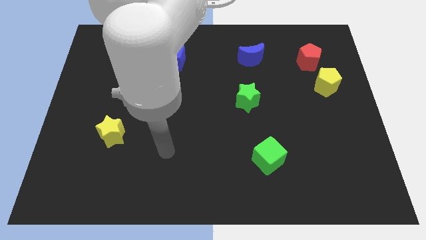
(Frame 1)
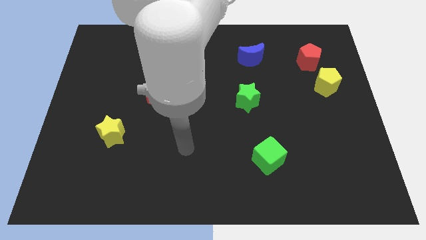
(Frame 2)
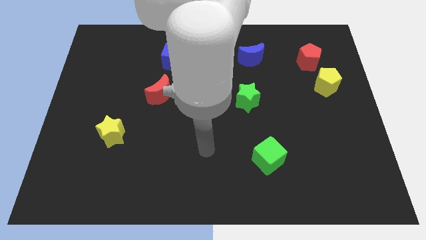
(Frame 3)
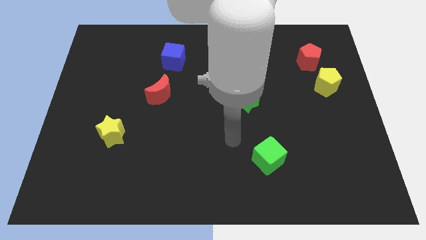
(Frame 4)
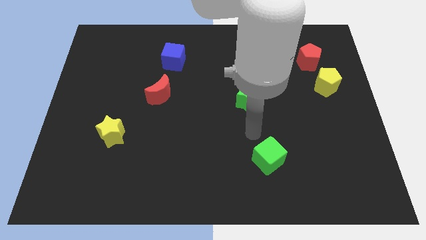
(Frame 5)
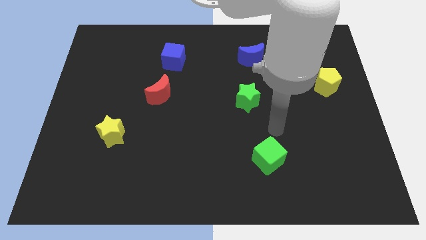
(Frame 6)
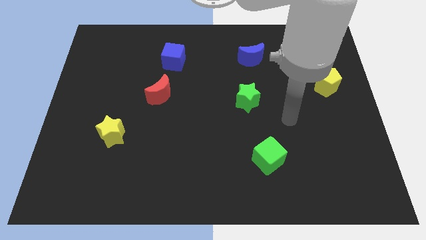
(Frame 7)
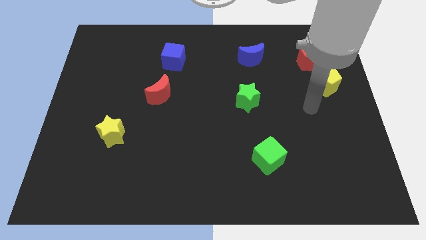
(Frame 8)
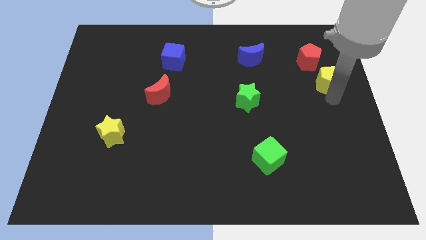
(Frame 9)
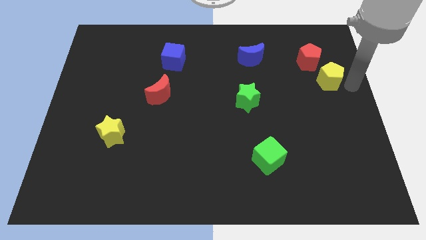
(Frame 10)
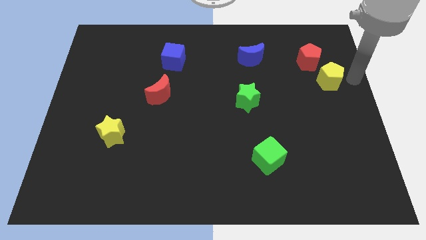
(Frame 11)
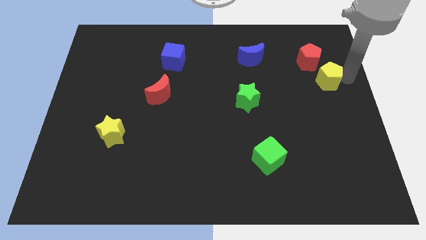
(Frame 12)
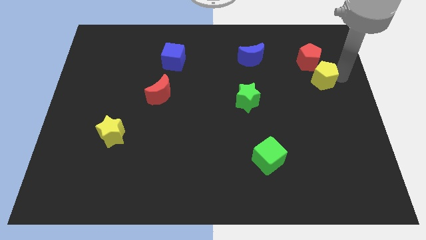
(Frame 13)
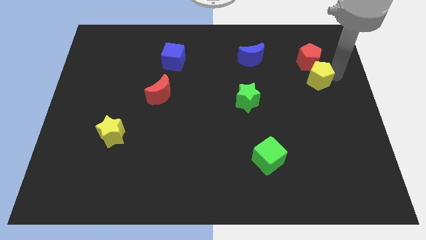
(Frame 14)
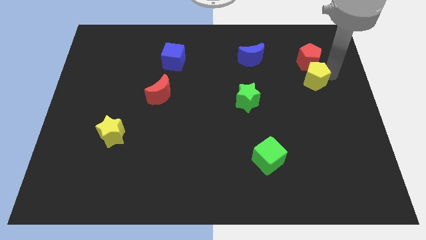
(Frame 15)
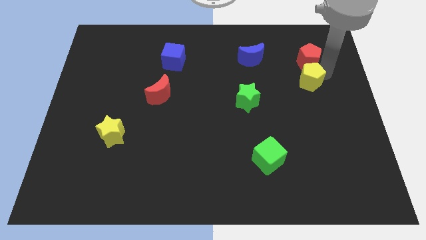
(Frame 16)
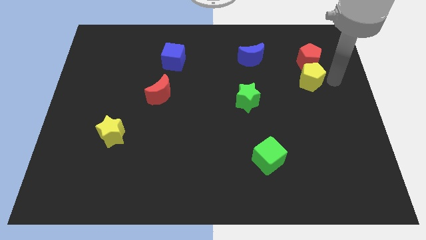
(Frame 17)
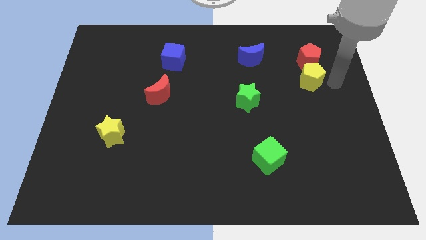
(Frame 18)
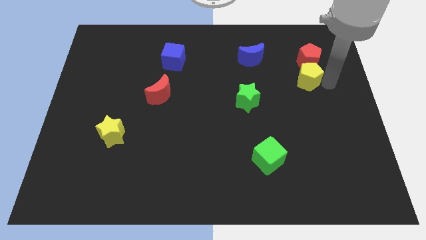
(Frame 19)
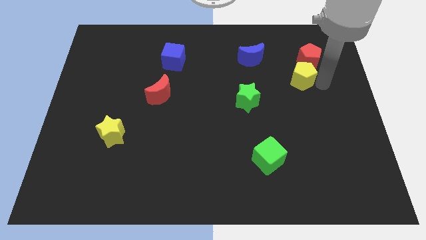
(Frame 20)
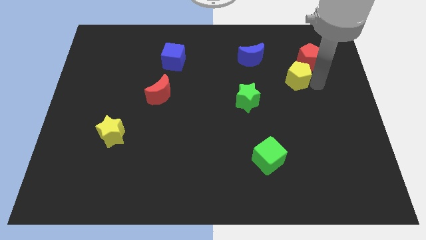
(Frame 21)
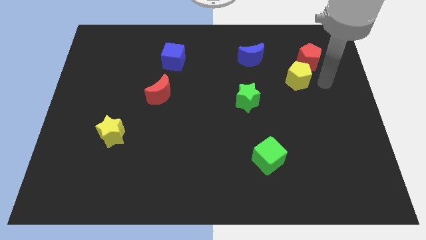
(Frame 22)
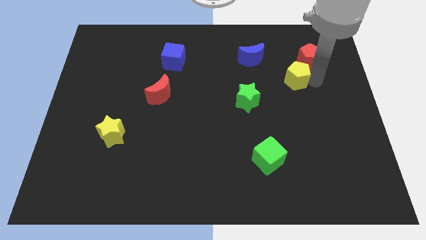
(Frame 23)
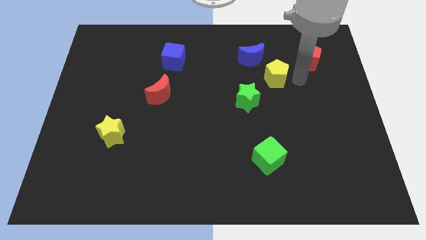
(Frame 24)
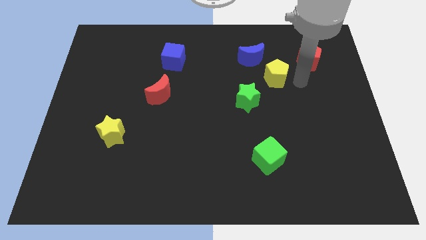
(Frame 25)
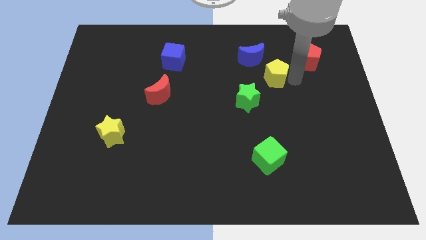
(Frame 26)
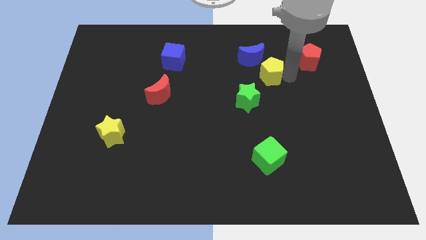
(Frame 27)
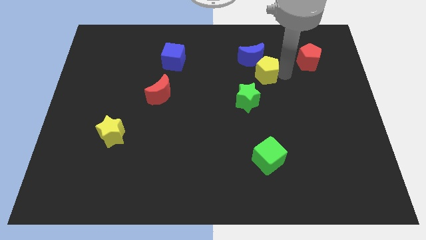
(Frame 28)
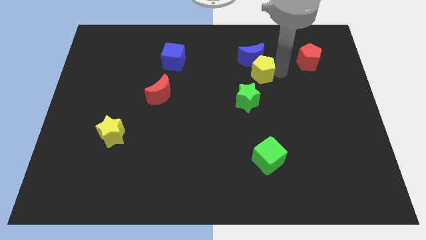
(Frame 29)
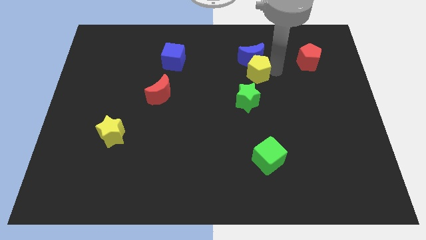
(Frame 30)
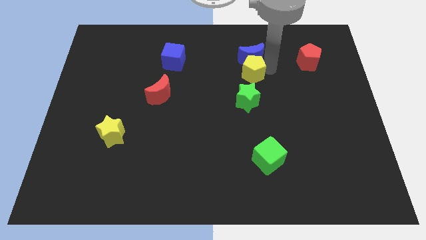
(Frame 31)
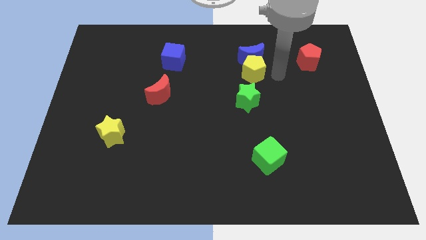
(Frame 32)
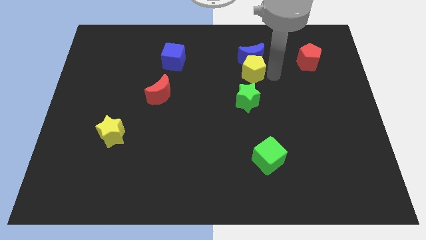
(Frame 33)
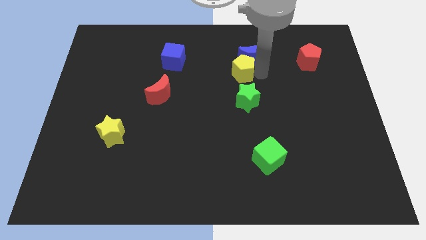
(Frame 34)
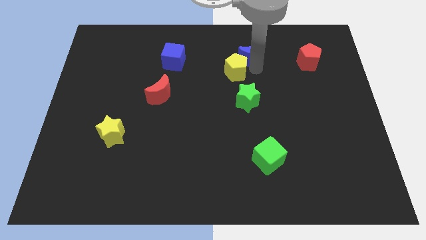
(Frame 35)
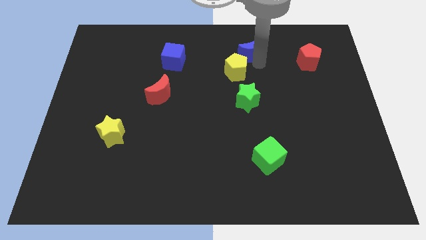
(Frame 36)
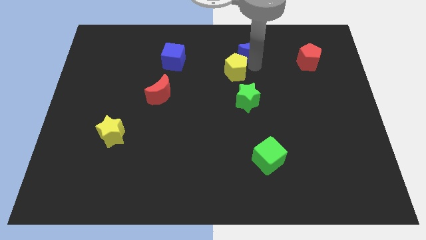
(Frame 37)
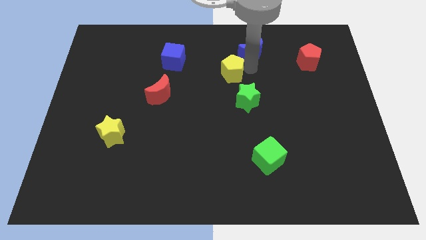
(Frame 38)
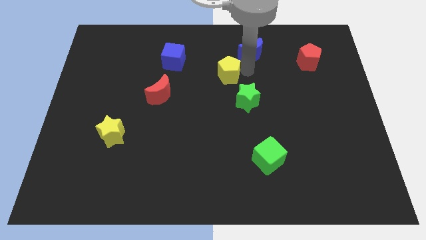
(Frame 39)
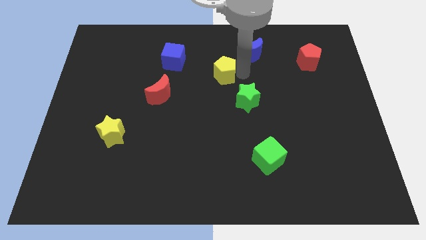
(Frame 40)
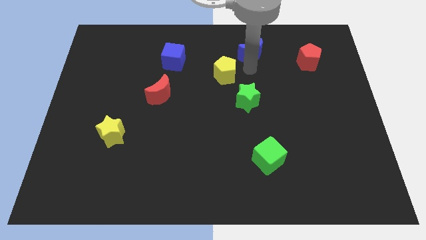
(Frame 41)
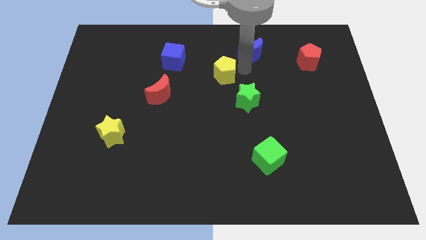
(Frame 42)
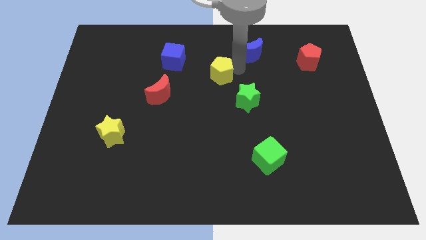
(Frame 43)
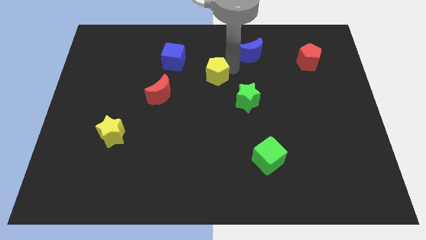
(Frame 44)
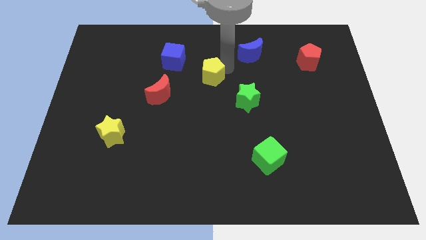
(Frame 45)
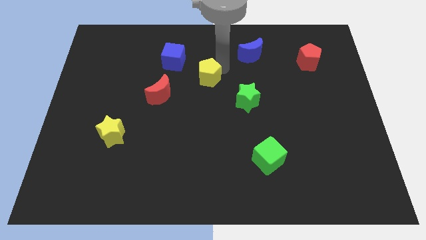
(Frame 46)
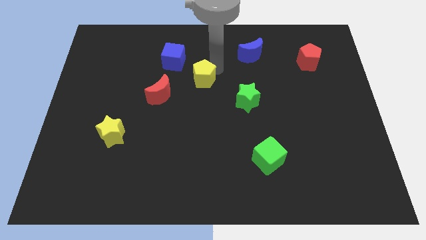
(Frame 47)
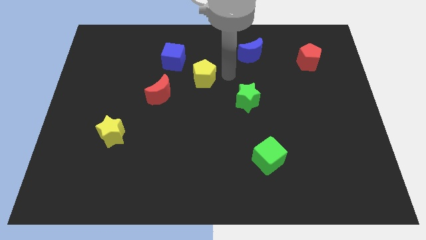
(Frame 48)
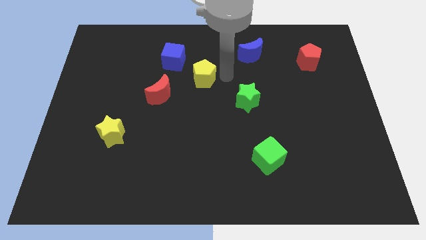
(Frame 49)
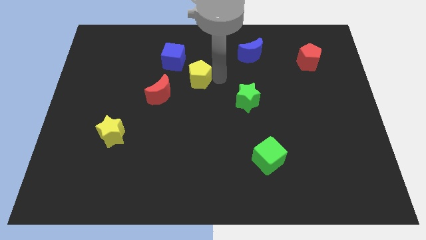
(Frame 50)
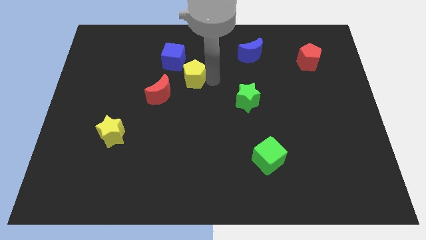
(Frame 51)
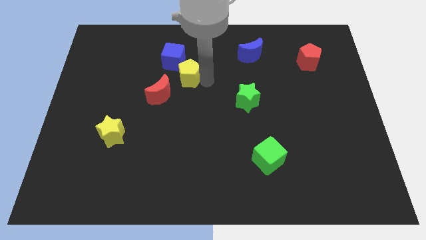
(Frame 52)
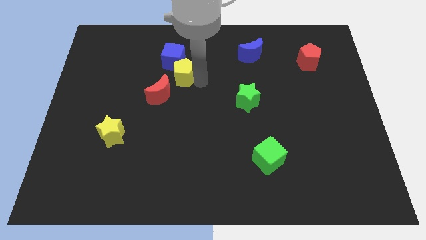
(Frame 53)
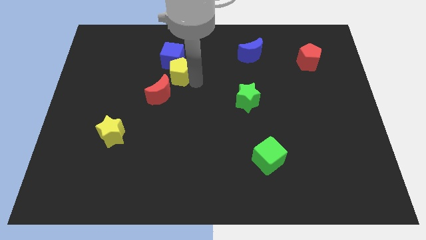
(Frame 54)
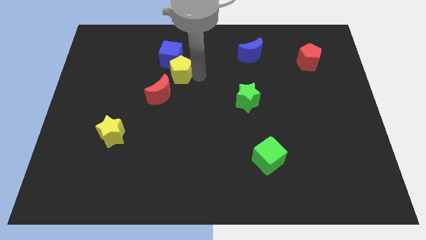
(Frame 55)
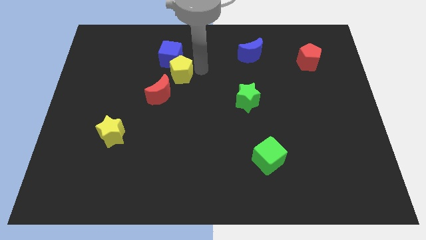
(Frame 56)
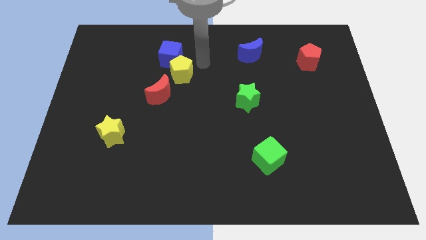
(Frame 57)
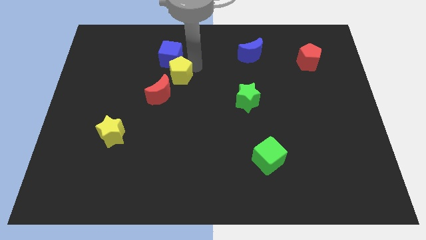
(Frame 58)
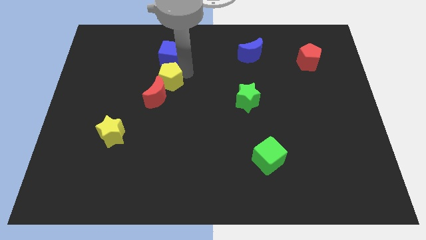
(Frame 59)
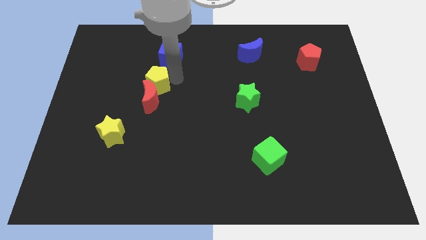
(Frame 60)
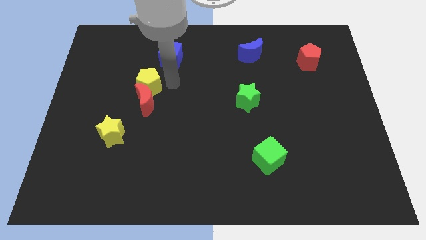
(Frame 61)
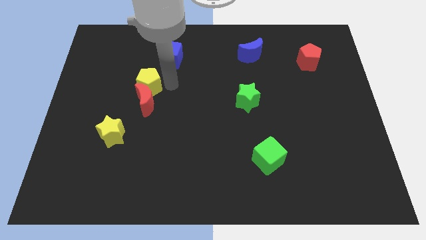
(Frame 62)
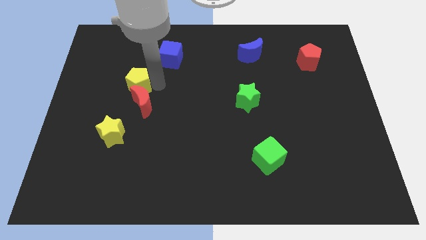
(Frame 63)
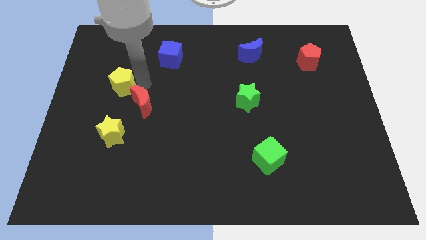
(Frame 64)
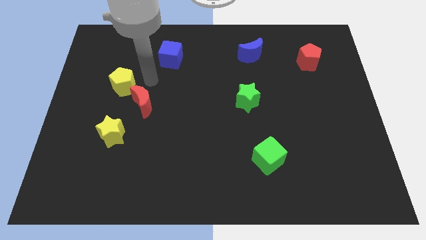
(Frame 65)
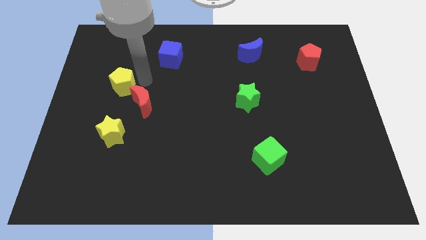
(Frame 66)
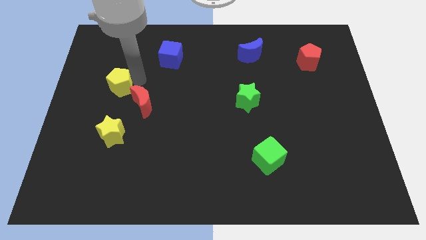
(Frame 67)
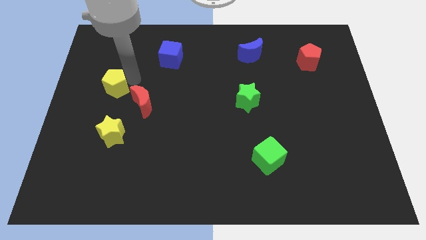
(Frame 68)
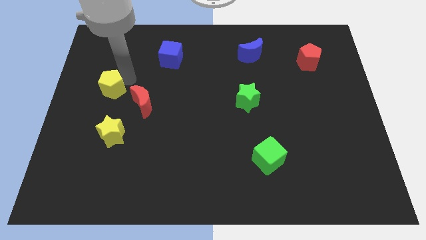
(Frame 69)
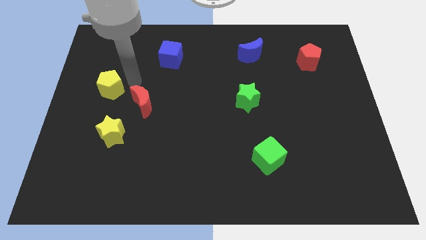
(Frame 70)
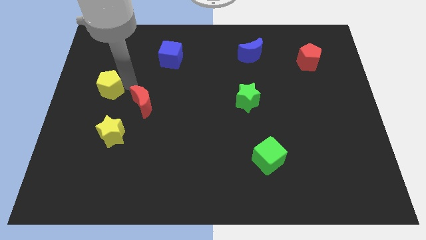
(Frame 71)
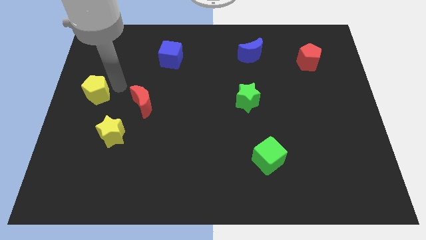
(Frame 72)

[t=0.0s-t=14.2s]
slide the yellow pentagon to the center left
